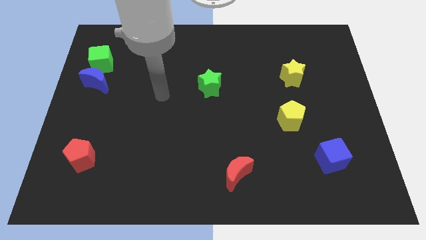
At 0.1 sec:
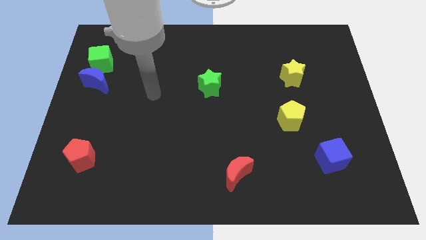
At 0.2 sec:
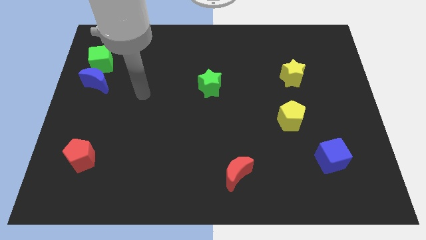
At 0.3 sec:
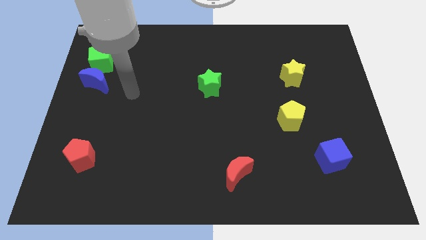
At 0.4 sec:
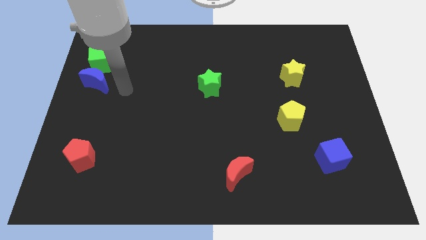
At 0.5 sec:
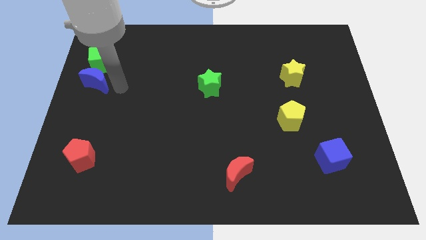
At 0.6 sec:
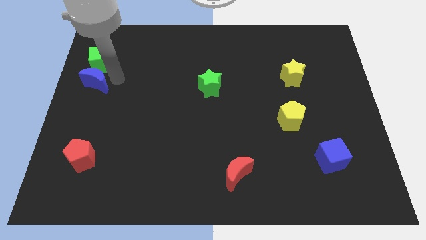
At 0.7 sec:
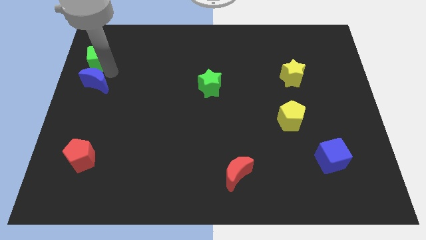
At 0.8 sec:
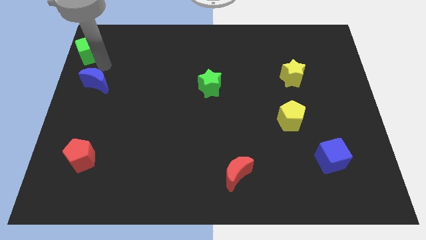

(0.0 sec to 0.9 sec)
separate the blue moon from the green cube

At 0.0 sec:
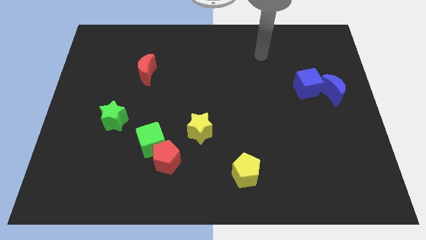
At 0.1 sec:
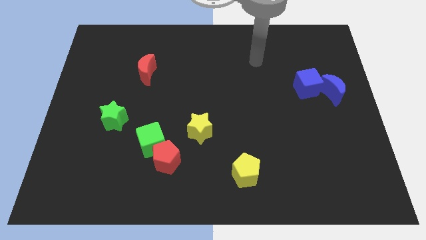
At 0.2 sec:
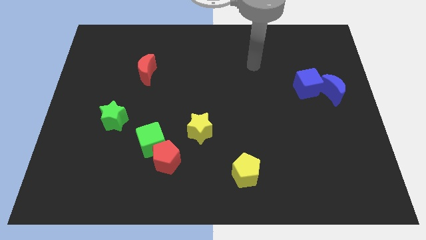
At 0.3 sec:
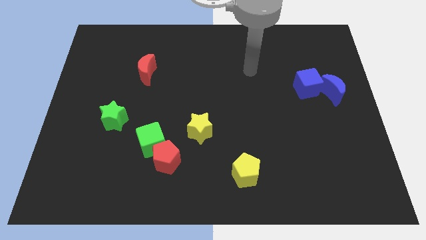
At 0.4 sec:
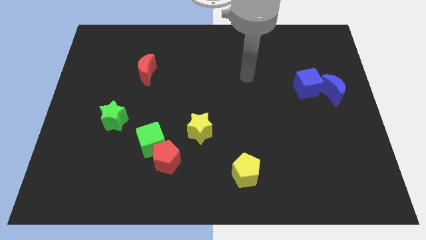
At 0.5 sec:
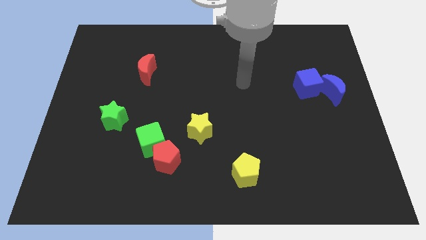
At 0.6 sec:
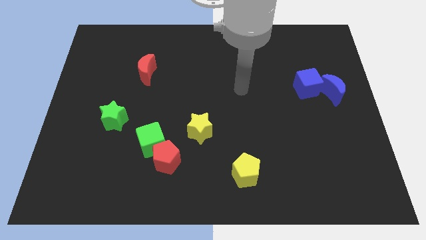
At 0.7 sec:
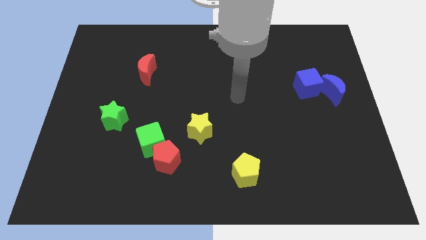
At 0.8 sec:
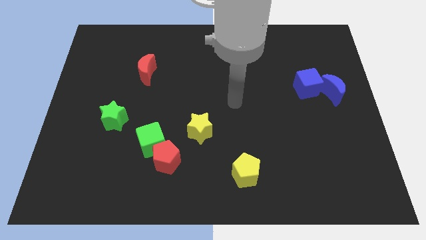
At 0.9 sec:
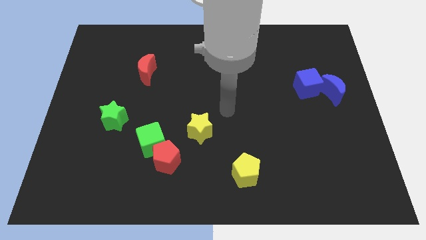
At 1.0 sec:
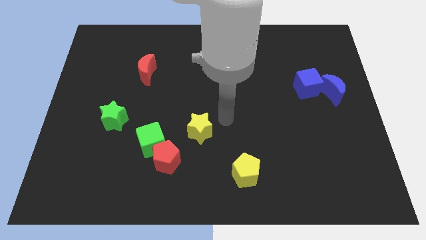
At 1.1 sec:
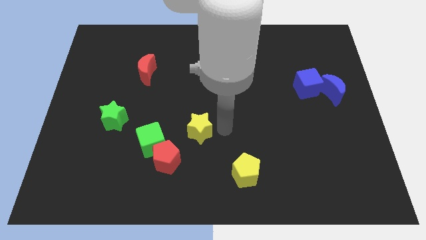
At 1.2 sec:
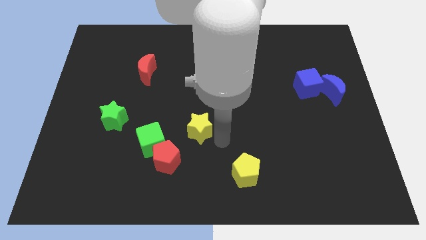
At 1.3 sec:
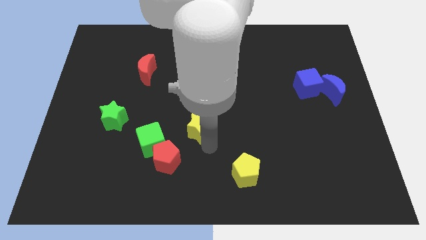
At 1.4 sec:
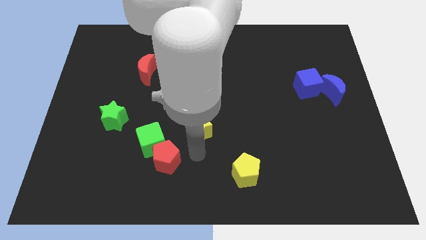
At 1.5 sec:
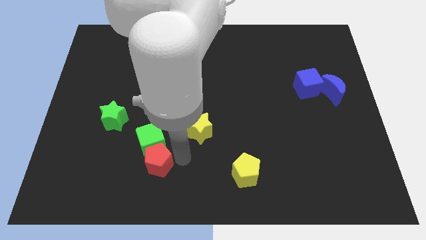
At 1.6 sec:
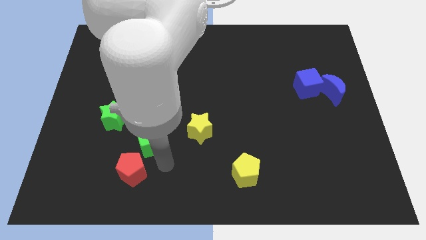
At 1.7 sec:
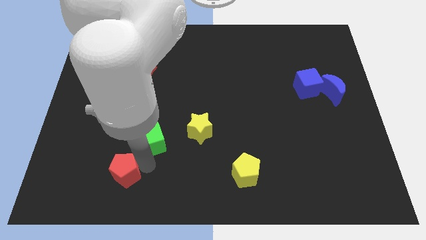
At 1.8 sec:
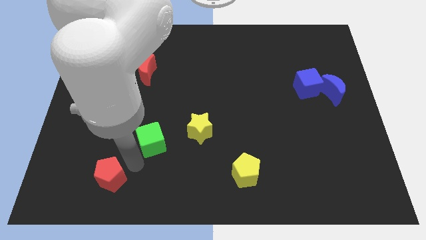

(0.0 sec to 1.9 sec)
separate the green cube from the red pentagon

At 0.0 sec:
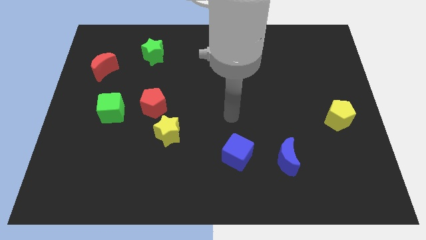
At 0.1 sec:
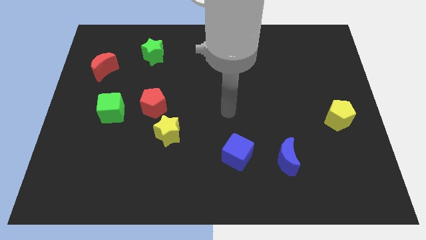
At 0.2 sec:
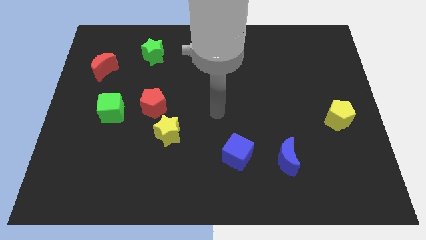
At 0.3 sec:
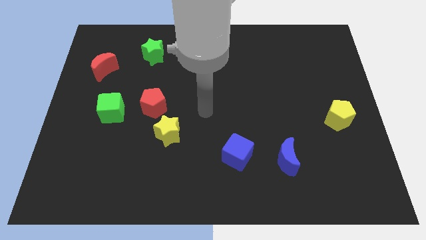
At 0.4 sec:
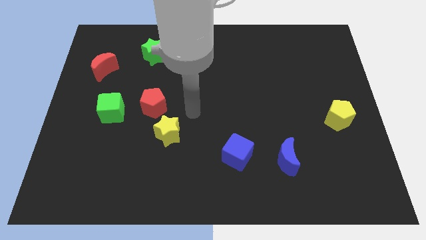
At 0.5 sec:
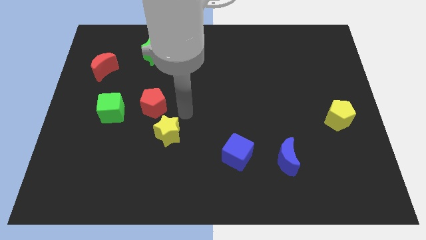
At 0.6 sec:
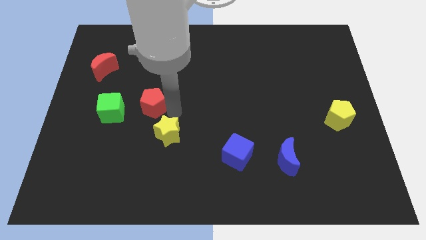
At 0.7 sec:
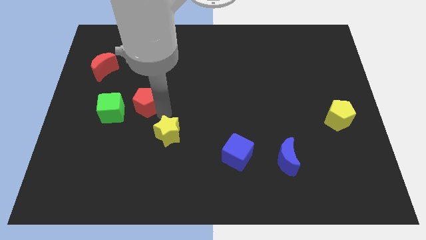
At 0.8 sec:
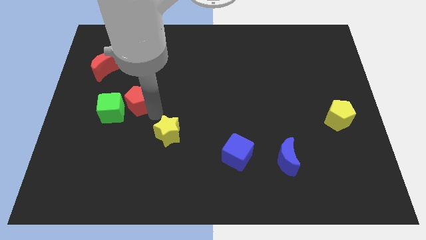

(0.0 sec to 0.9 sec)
separate the yellow star from the red pentagon

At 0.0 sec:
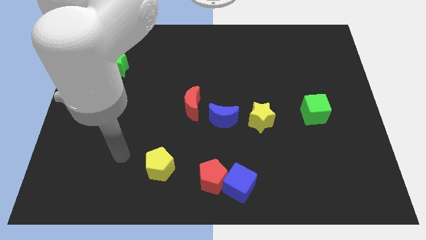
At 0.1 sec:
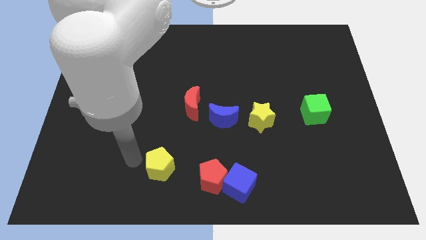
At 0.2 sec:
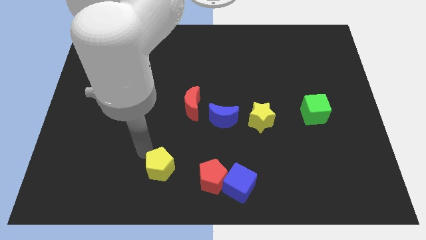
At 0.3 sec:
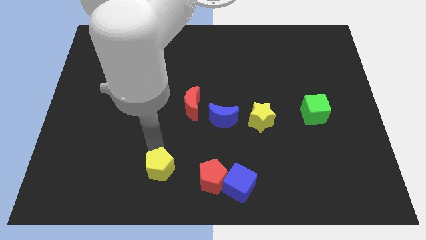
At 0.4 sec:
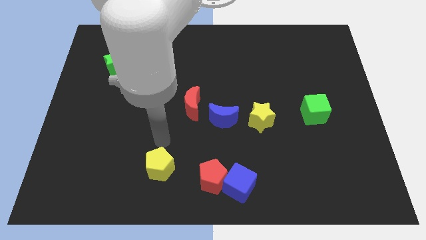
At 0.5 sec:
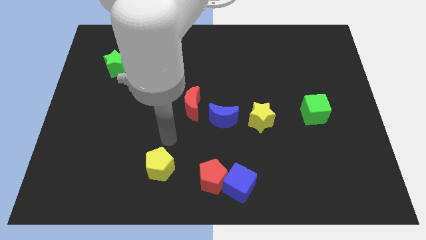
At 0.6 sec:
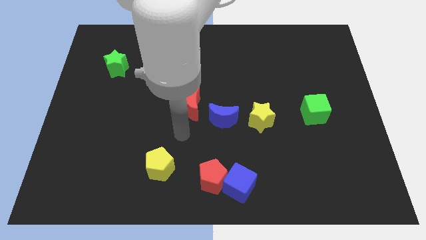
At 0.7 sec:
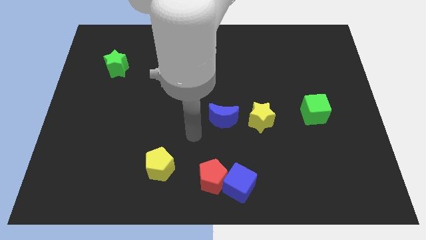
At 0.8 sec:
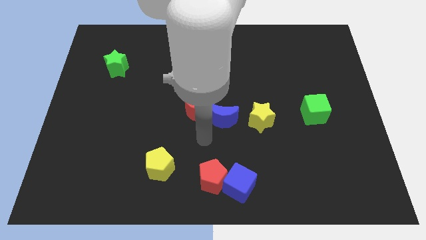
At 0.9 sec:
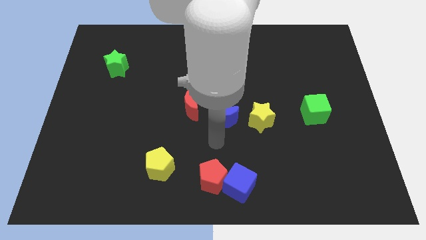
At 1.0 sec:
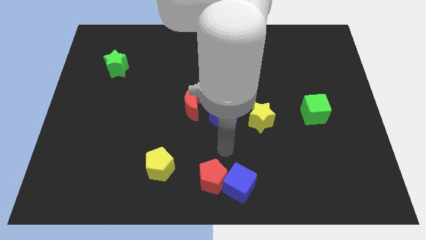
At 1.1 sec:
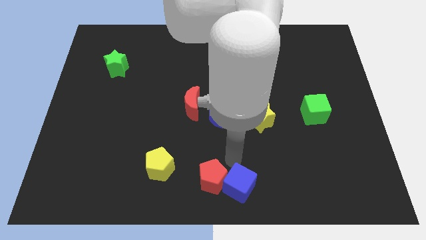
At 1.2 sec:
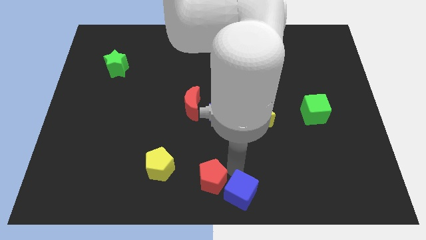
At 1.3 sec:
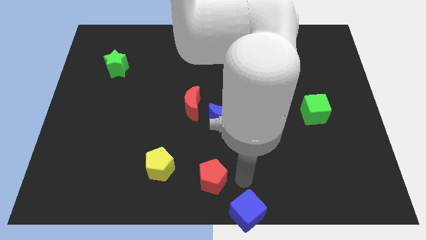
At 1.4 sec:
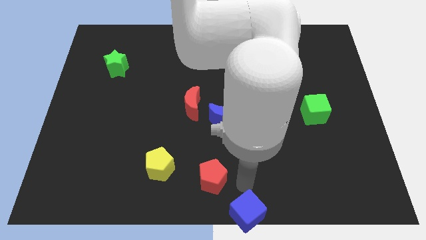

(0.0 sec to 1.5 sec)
separate the red pentagon from the blue cube

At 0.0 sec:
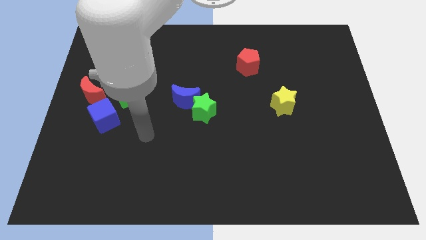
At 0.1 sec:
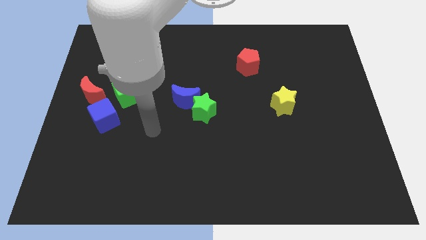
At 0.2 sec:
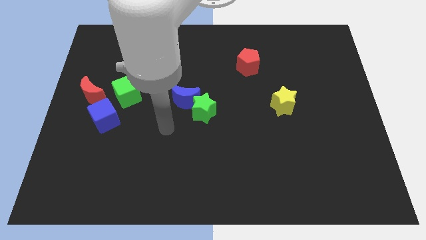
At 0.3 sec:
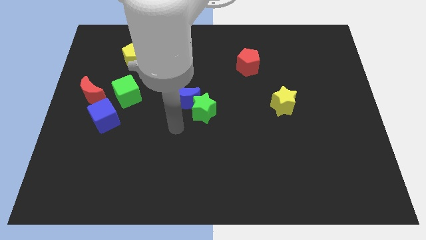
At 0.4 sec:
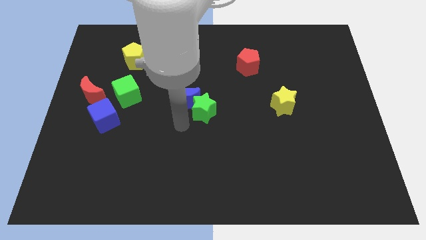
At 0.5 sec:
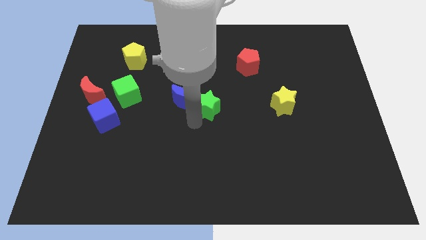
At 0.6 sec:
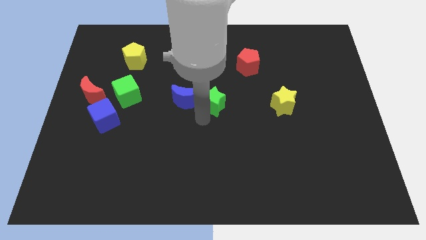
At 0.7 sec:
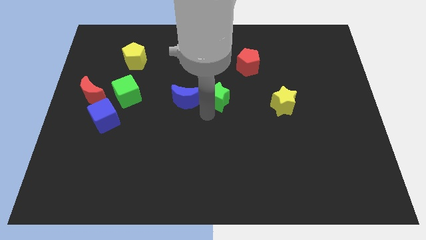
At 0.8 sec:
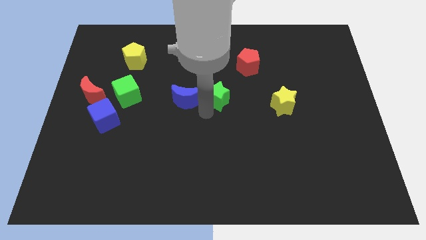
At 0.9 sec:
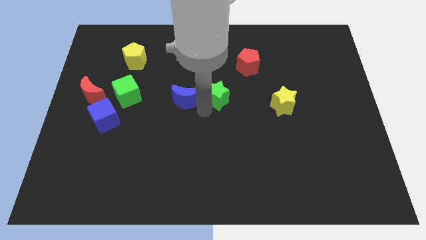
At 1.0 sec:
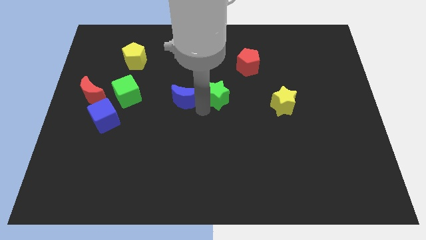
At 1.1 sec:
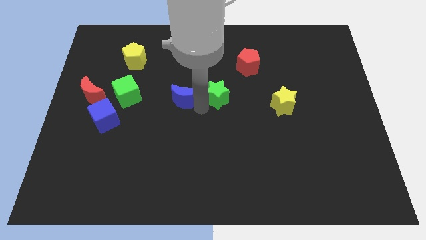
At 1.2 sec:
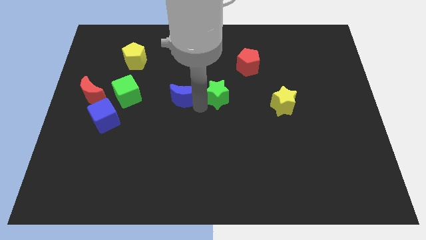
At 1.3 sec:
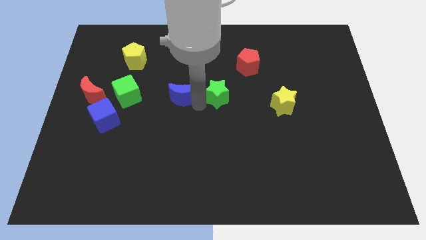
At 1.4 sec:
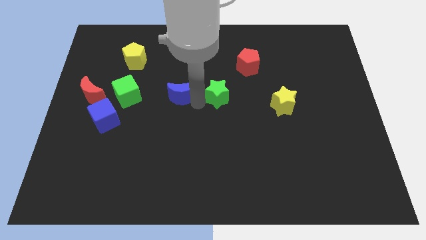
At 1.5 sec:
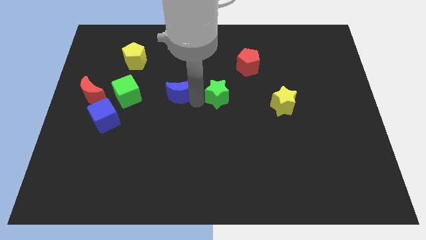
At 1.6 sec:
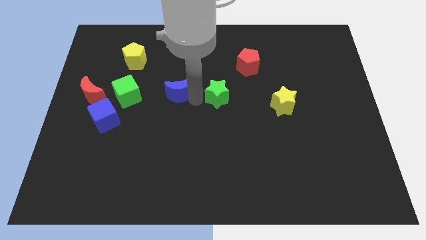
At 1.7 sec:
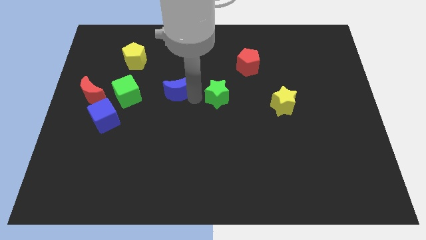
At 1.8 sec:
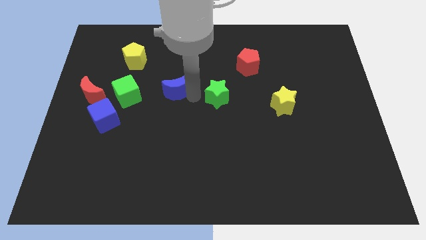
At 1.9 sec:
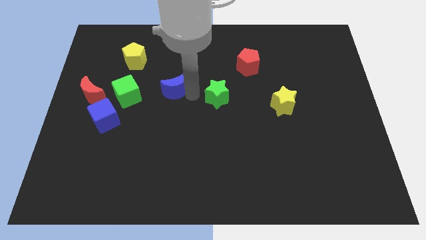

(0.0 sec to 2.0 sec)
pull the blue moon apart from the green star

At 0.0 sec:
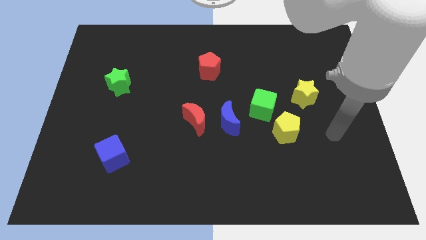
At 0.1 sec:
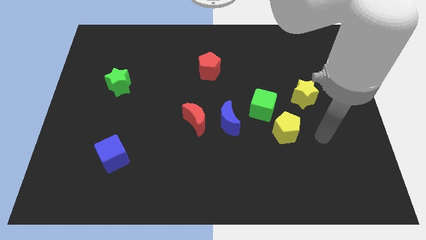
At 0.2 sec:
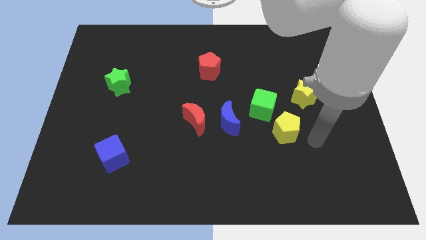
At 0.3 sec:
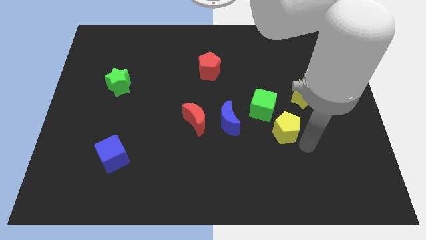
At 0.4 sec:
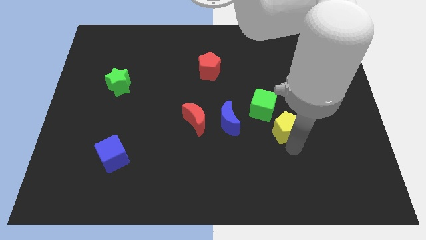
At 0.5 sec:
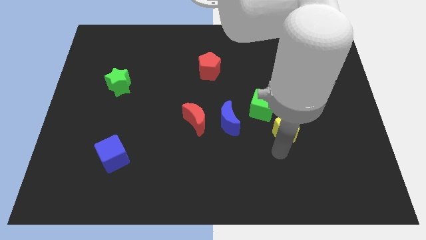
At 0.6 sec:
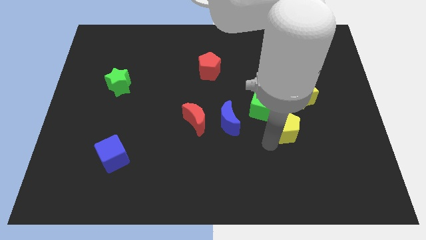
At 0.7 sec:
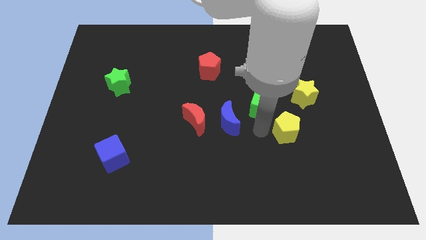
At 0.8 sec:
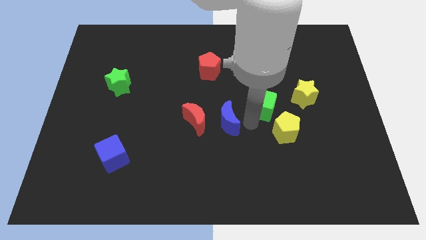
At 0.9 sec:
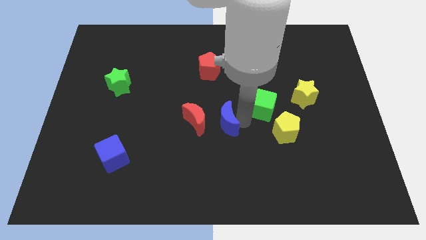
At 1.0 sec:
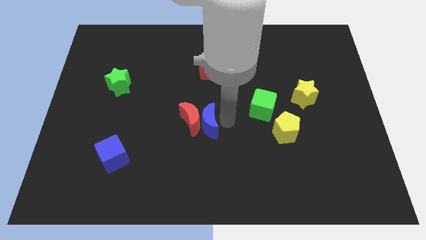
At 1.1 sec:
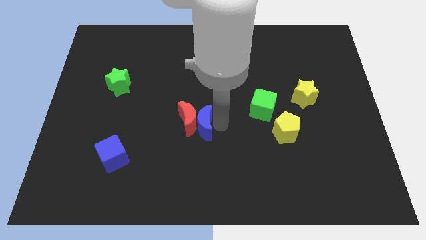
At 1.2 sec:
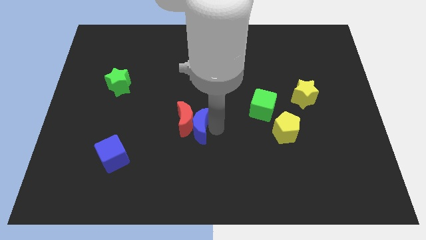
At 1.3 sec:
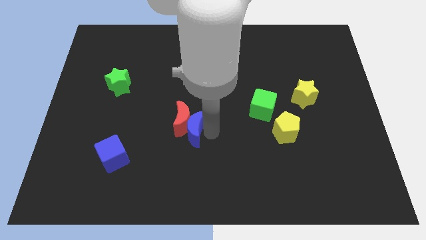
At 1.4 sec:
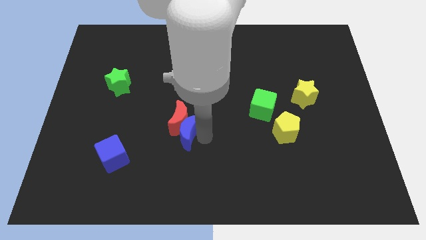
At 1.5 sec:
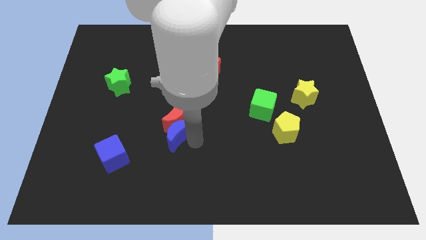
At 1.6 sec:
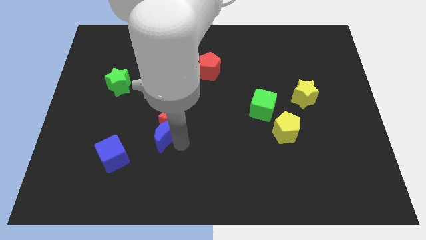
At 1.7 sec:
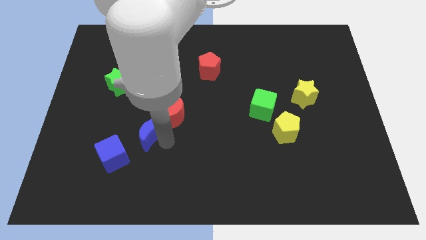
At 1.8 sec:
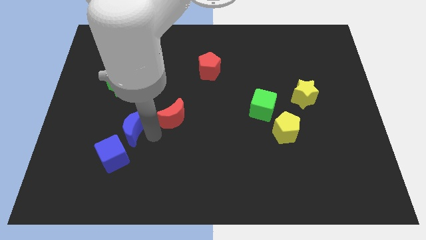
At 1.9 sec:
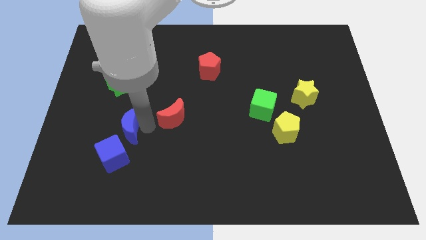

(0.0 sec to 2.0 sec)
pull the red moon apart from the blue moon
